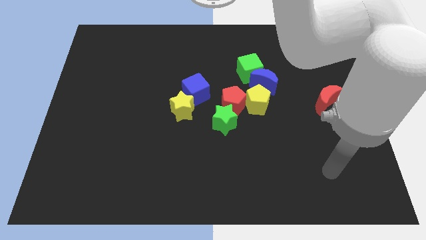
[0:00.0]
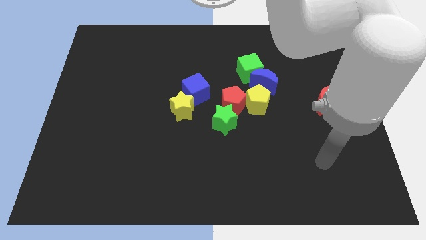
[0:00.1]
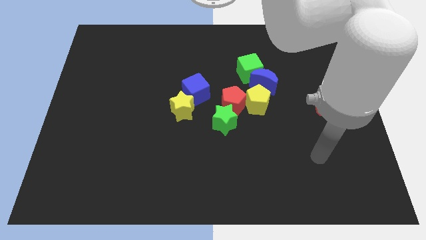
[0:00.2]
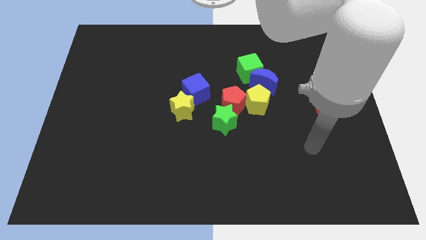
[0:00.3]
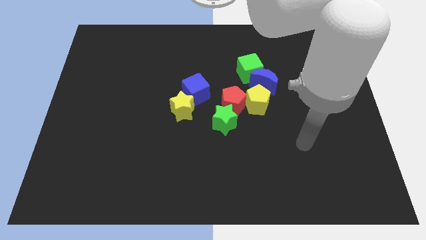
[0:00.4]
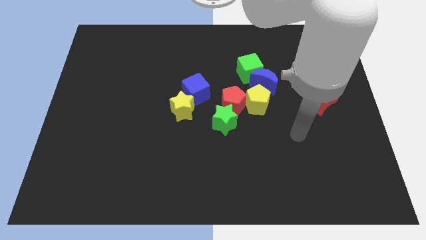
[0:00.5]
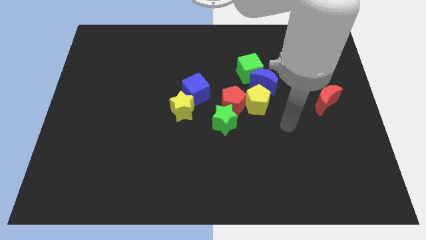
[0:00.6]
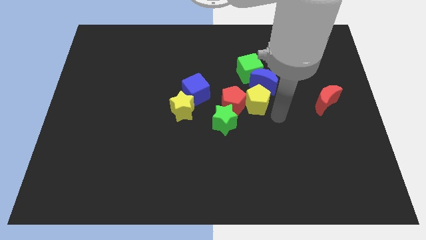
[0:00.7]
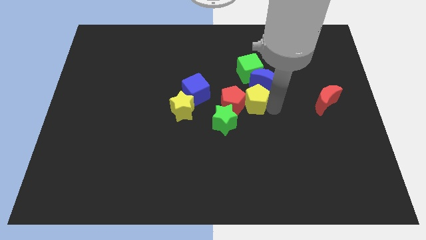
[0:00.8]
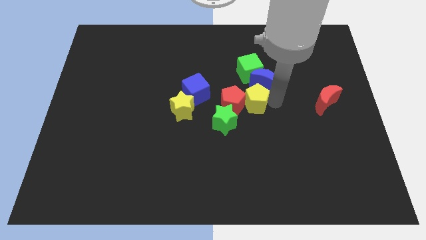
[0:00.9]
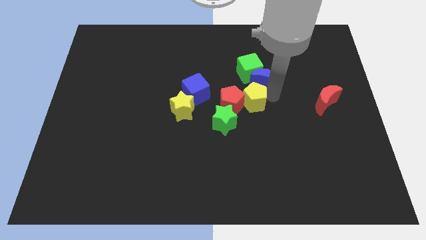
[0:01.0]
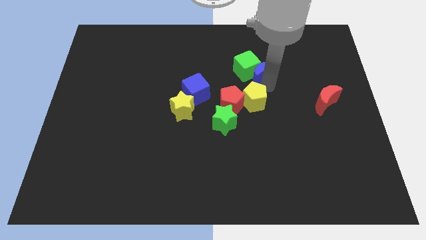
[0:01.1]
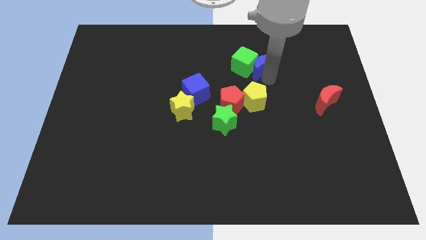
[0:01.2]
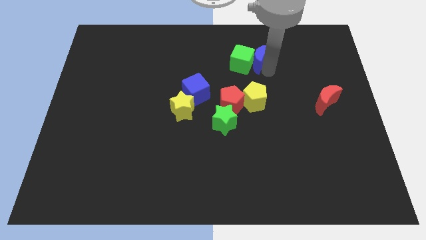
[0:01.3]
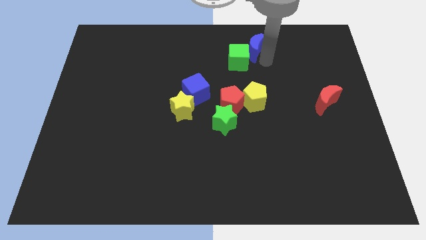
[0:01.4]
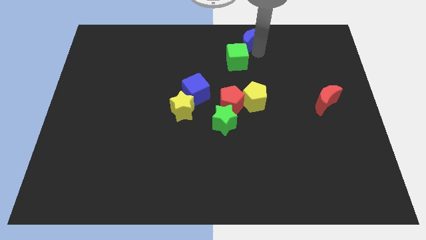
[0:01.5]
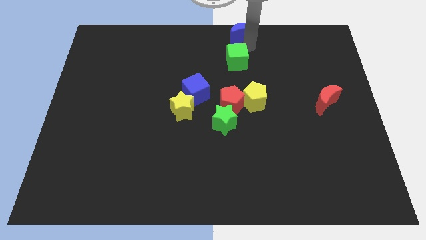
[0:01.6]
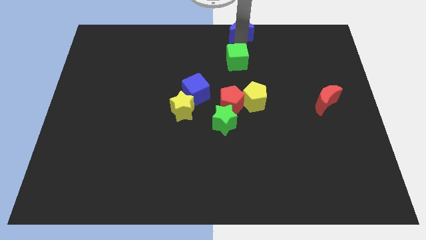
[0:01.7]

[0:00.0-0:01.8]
separate the green cube from the blue moon

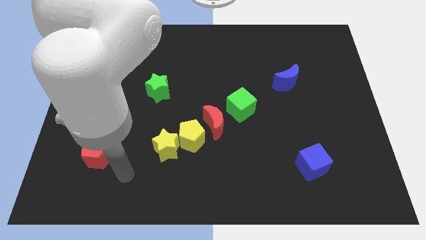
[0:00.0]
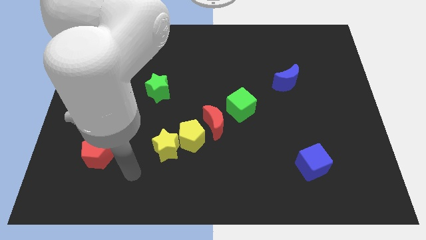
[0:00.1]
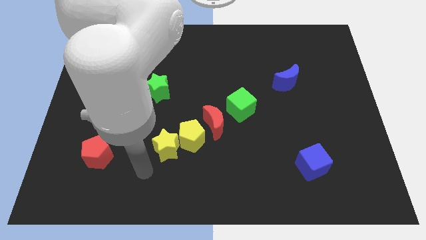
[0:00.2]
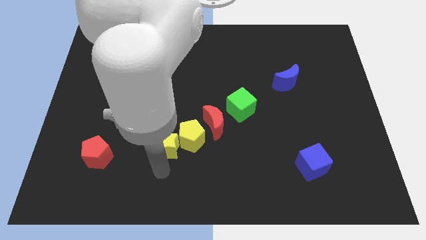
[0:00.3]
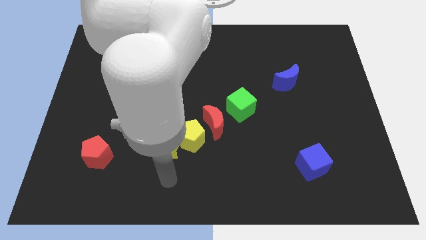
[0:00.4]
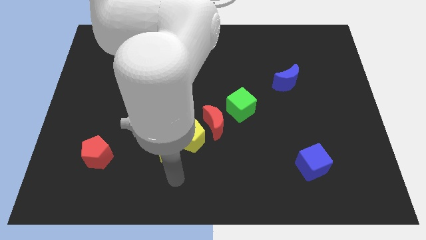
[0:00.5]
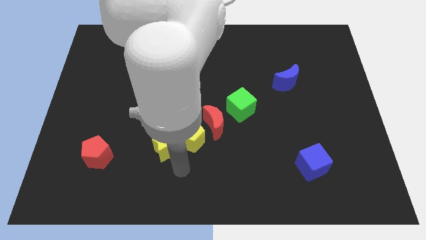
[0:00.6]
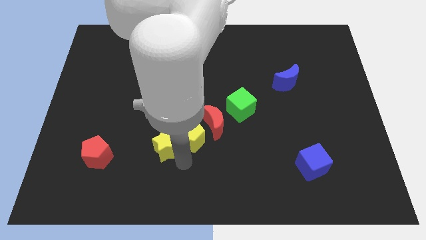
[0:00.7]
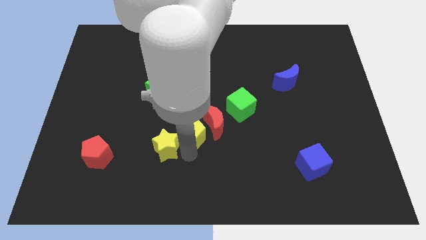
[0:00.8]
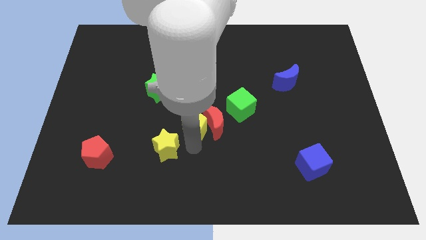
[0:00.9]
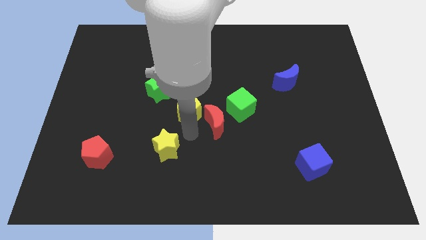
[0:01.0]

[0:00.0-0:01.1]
pull the yellow star apart from the yellow pentagon

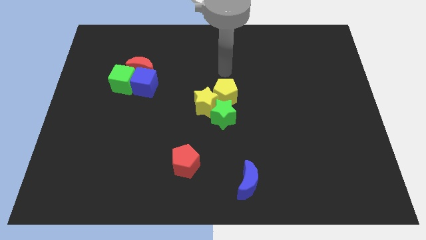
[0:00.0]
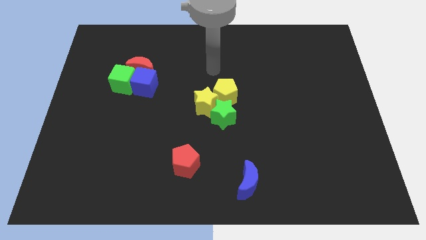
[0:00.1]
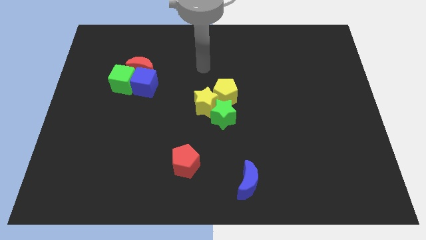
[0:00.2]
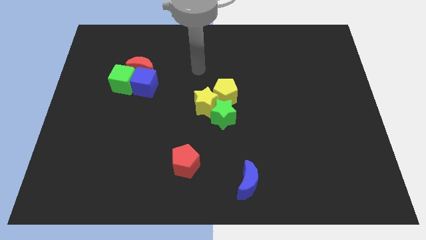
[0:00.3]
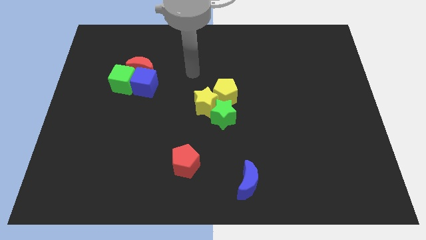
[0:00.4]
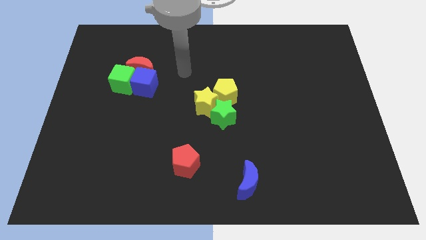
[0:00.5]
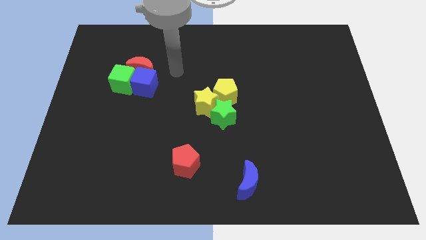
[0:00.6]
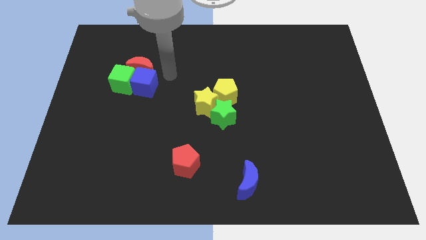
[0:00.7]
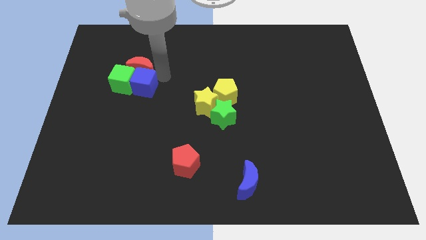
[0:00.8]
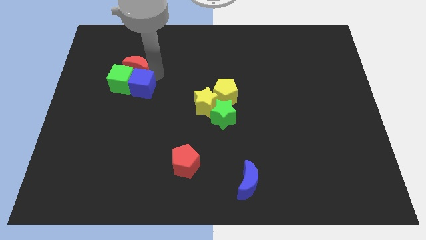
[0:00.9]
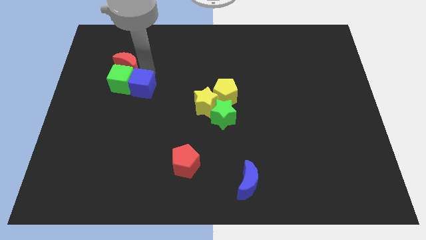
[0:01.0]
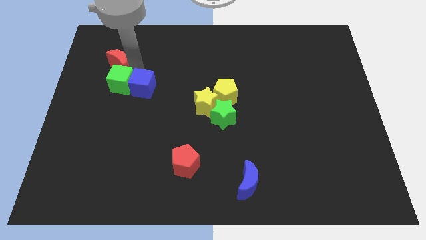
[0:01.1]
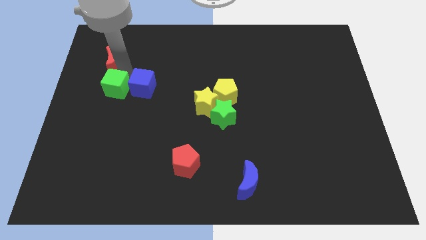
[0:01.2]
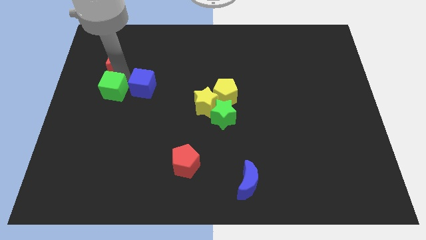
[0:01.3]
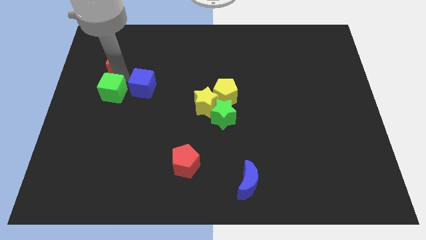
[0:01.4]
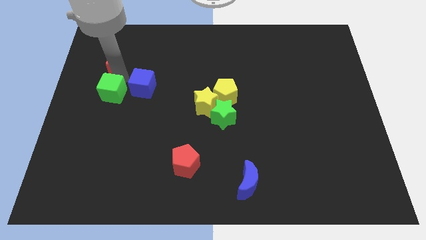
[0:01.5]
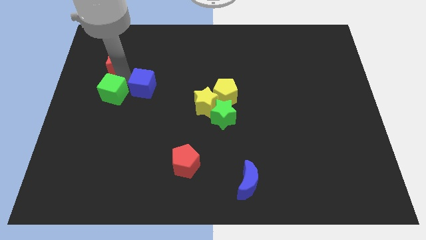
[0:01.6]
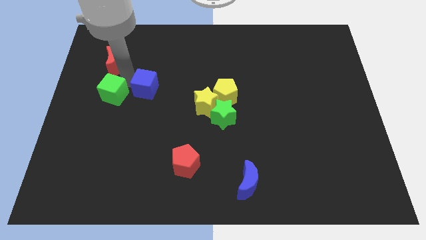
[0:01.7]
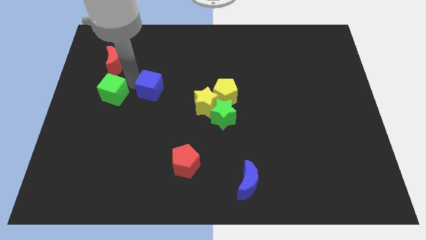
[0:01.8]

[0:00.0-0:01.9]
move the blue cube away from the red moon and green cube

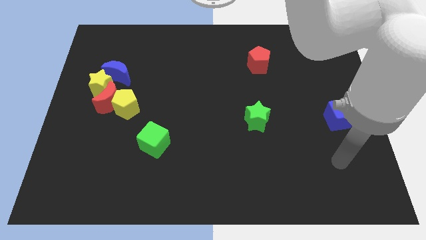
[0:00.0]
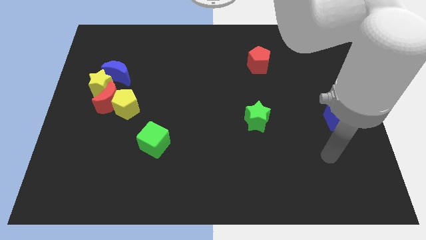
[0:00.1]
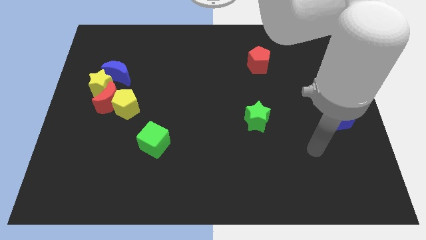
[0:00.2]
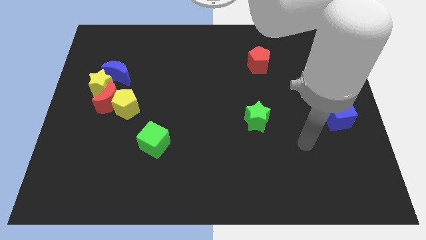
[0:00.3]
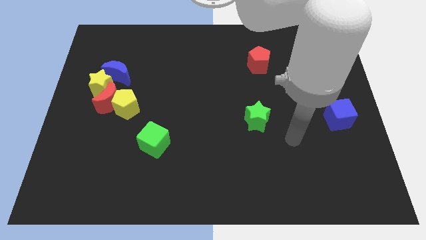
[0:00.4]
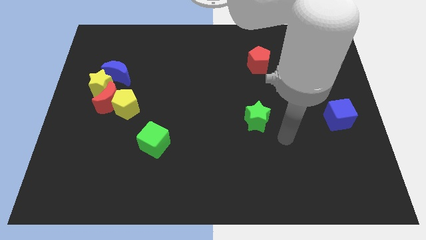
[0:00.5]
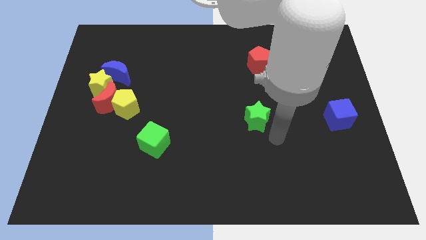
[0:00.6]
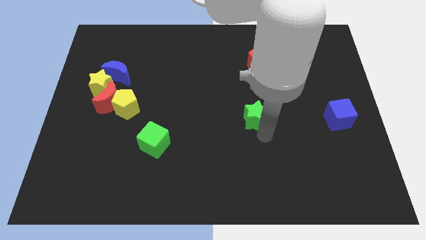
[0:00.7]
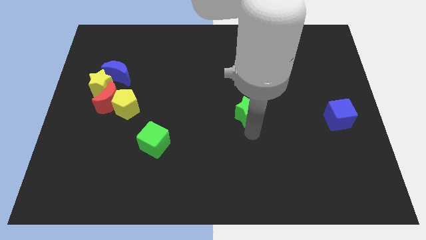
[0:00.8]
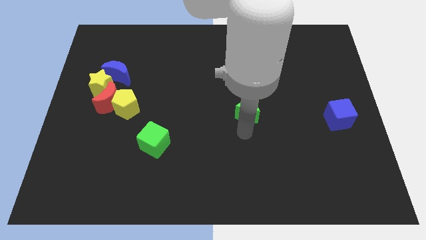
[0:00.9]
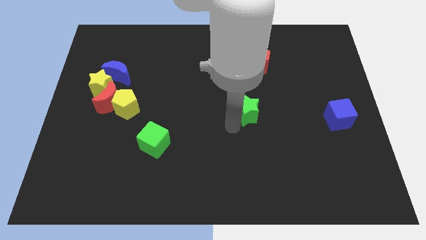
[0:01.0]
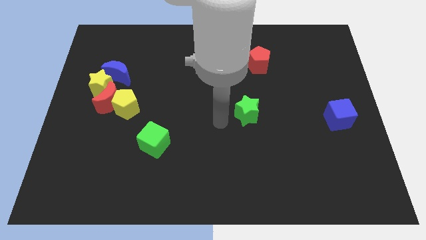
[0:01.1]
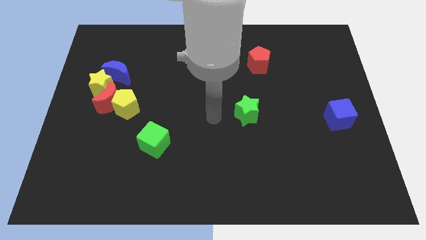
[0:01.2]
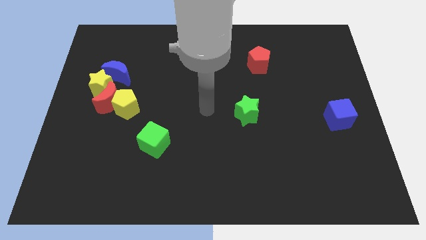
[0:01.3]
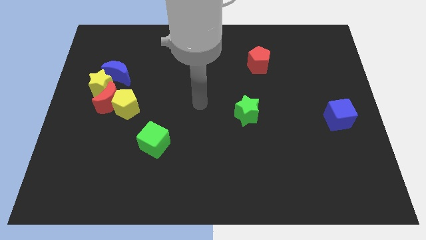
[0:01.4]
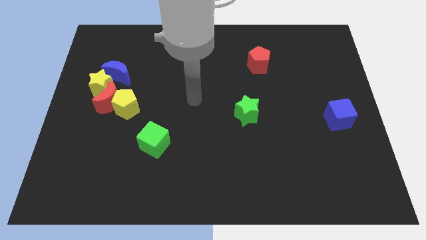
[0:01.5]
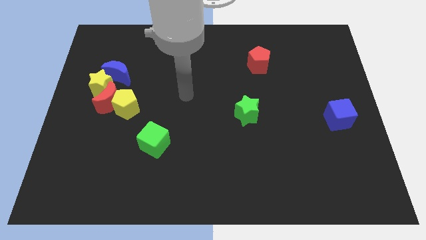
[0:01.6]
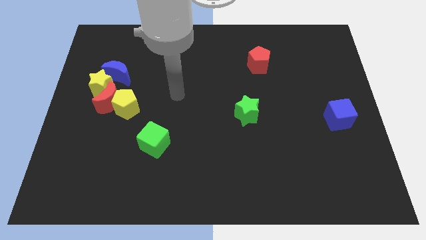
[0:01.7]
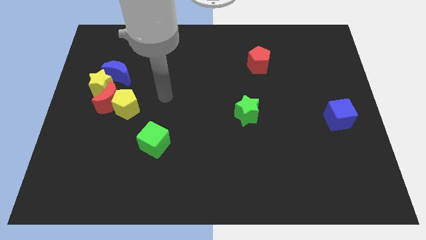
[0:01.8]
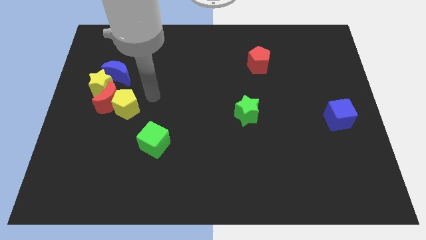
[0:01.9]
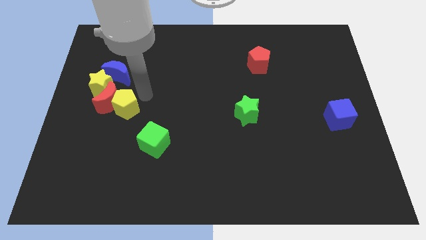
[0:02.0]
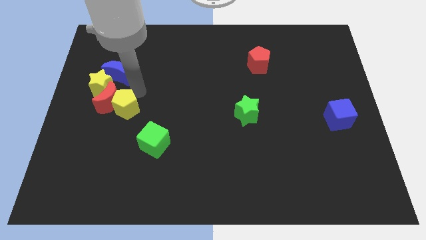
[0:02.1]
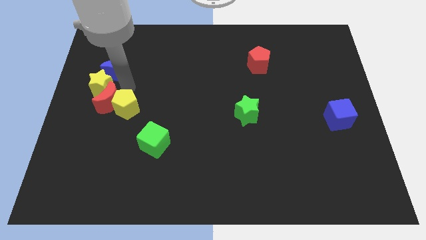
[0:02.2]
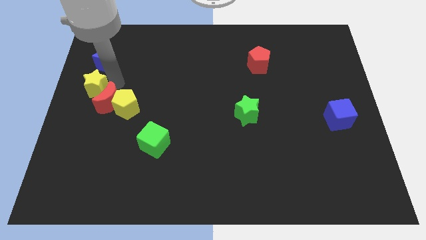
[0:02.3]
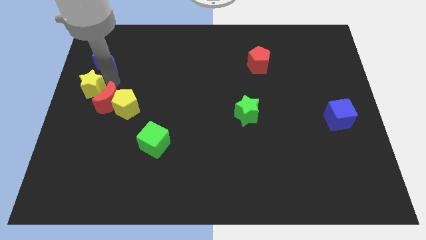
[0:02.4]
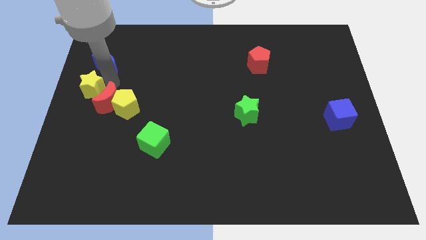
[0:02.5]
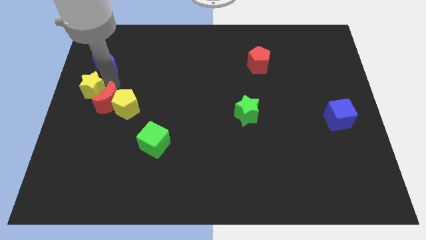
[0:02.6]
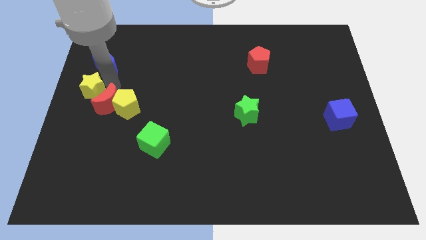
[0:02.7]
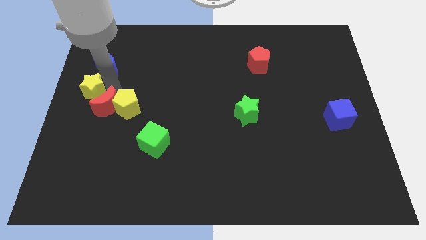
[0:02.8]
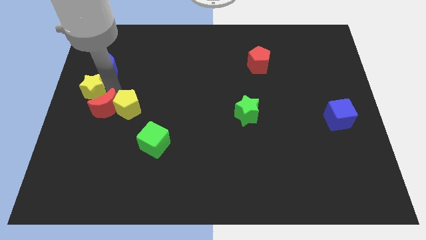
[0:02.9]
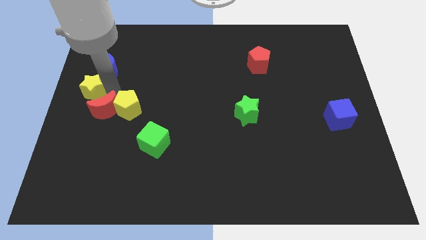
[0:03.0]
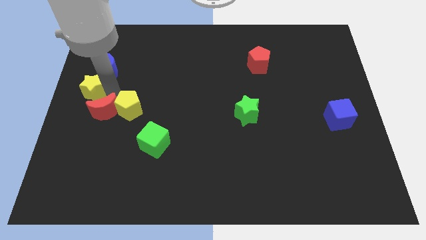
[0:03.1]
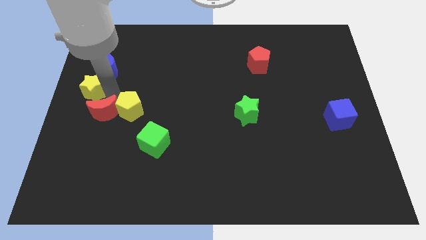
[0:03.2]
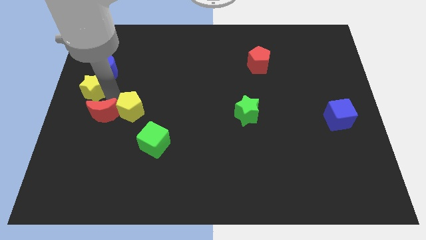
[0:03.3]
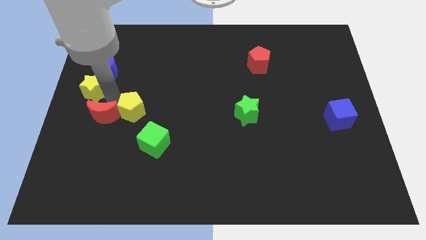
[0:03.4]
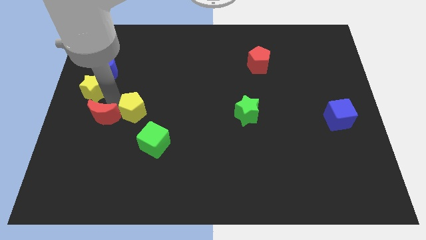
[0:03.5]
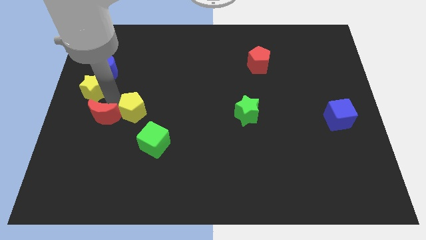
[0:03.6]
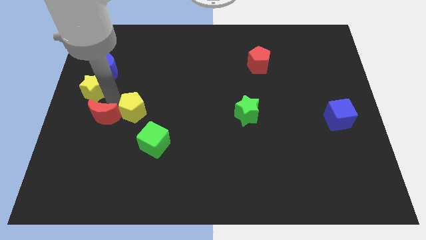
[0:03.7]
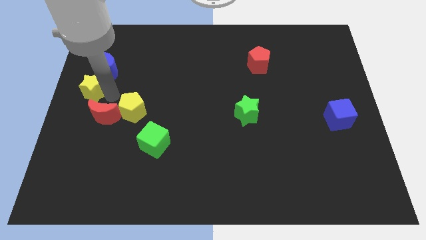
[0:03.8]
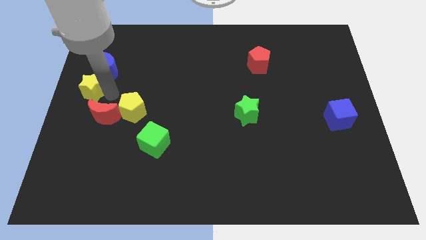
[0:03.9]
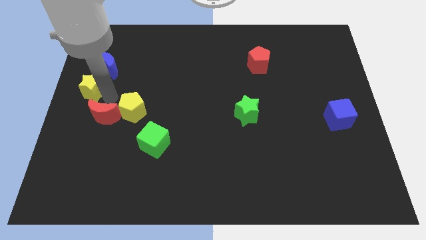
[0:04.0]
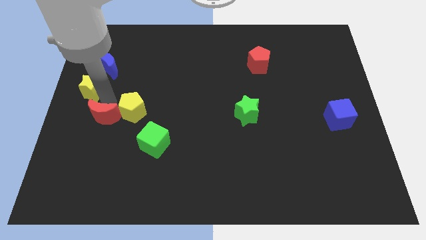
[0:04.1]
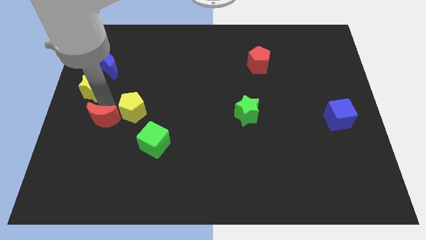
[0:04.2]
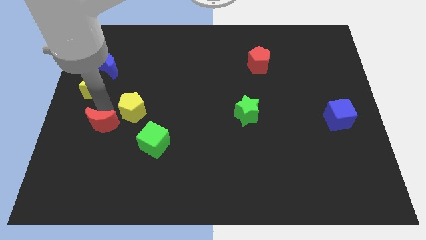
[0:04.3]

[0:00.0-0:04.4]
pull the red moon apart from the clump

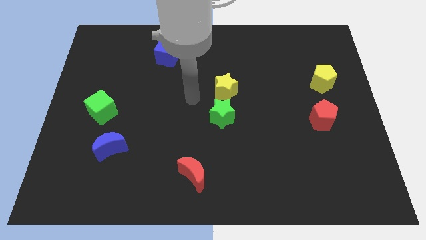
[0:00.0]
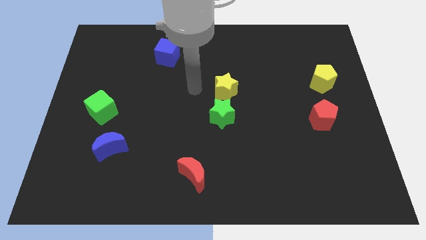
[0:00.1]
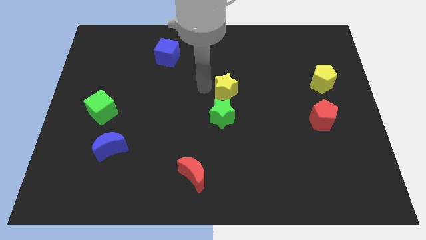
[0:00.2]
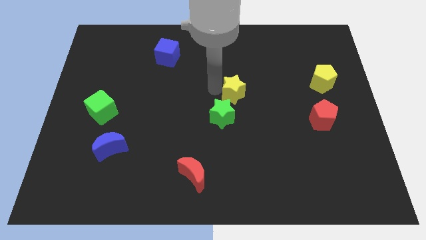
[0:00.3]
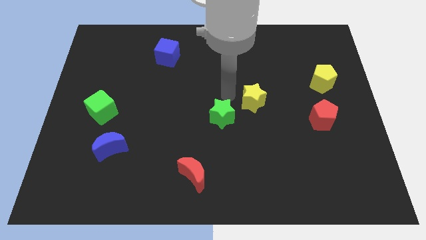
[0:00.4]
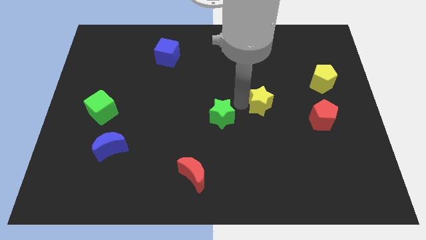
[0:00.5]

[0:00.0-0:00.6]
separate the green star from the yellow star
